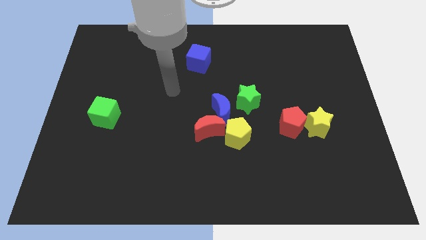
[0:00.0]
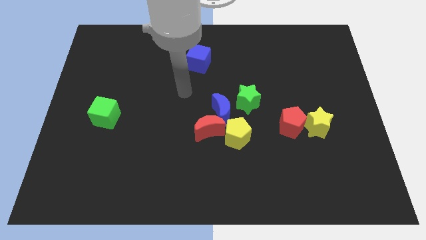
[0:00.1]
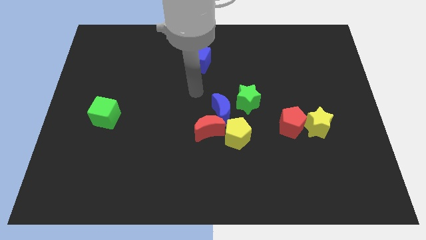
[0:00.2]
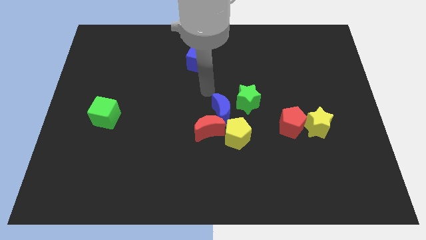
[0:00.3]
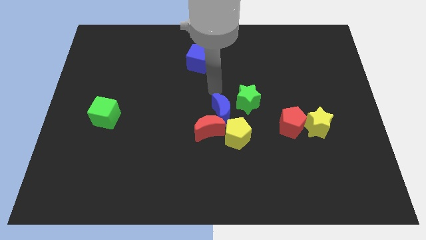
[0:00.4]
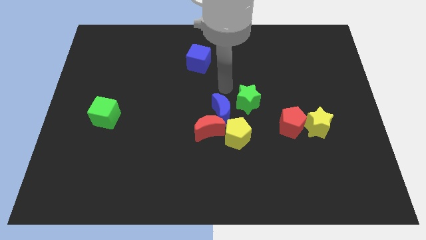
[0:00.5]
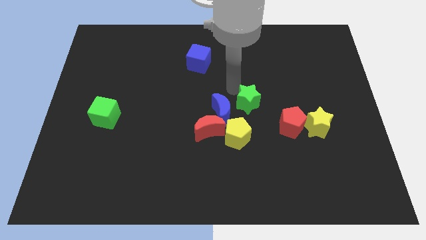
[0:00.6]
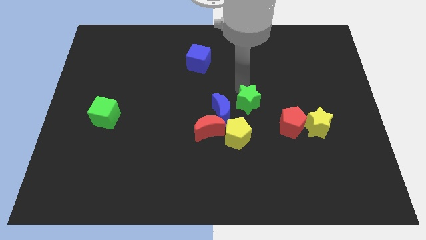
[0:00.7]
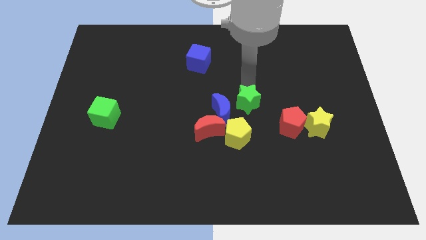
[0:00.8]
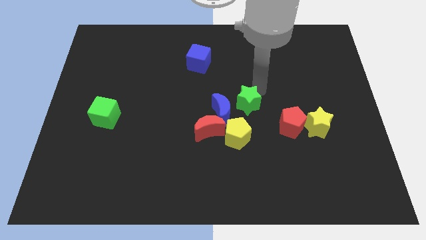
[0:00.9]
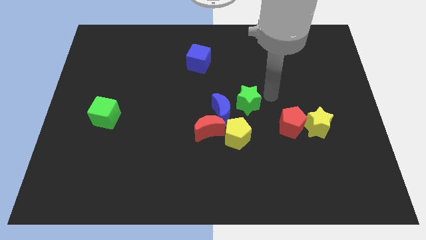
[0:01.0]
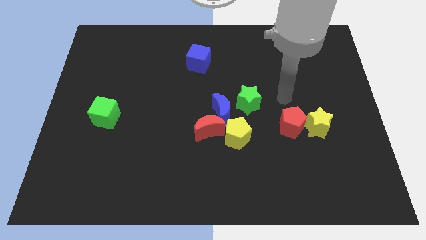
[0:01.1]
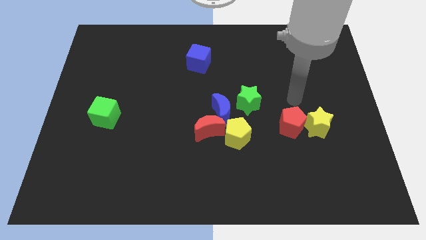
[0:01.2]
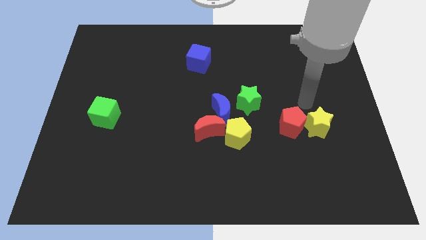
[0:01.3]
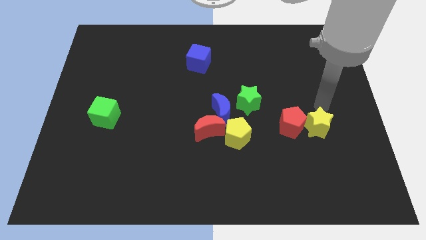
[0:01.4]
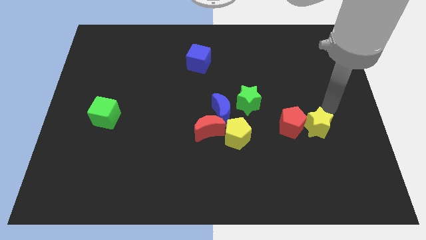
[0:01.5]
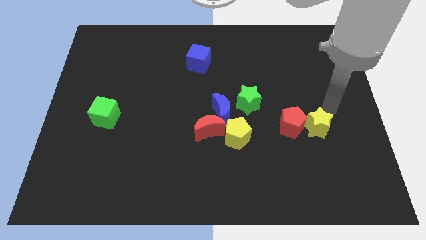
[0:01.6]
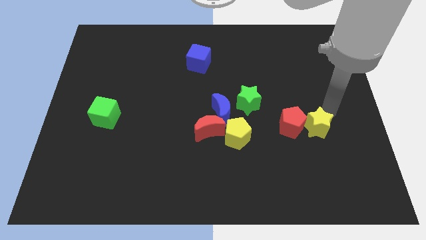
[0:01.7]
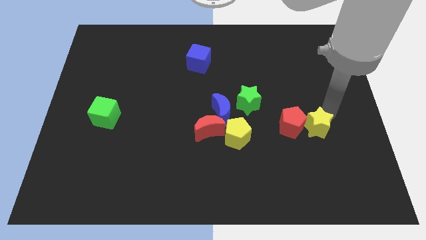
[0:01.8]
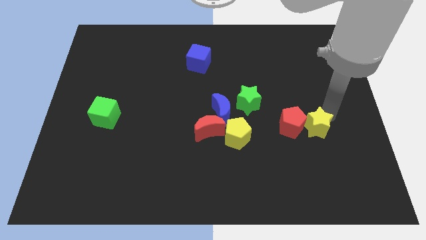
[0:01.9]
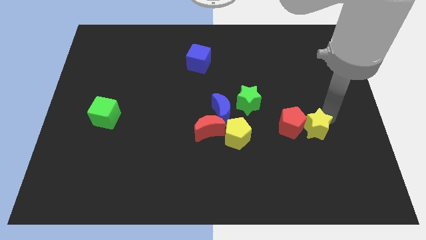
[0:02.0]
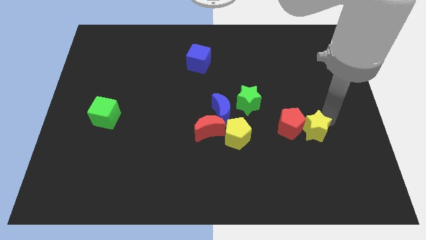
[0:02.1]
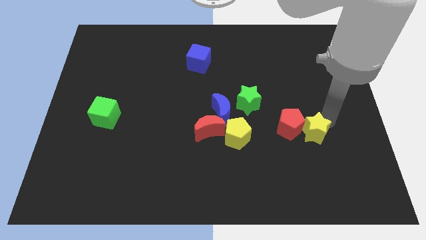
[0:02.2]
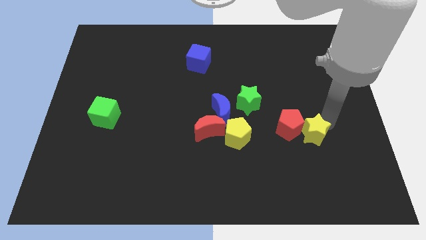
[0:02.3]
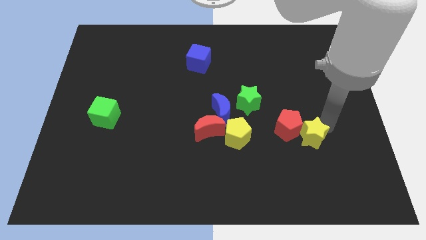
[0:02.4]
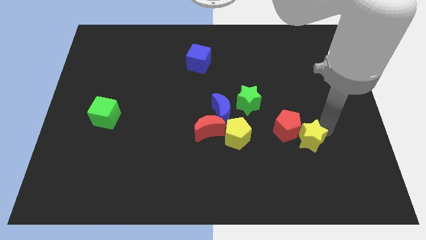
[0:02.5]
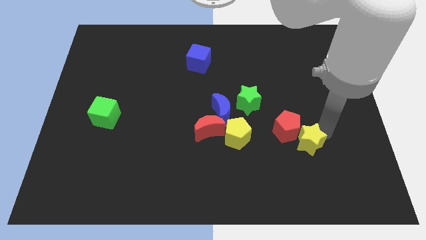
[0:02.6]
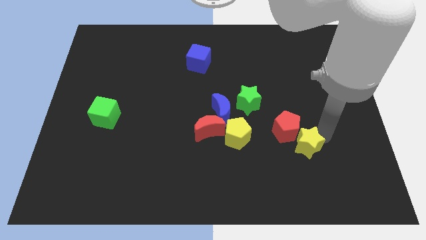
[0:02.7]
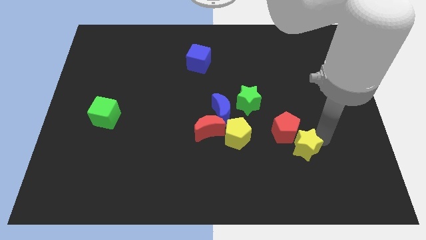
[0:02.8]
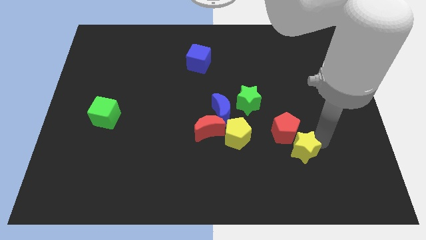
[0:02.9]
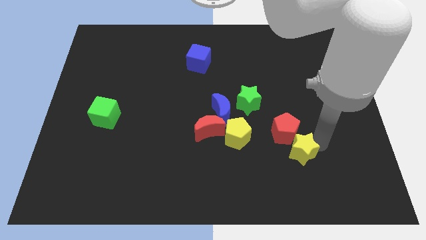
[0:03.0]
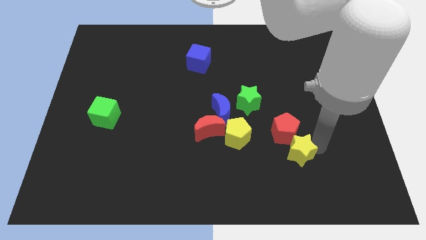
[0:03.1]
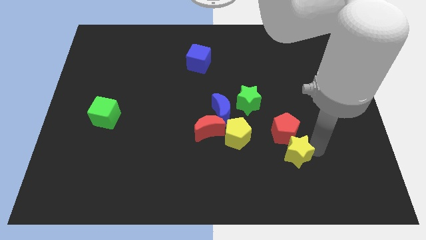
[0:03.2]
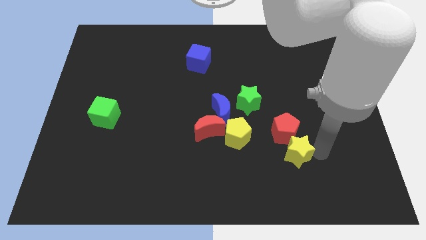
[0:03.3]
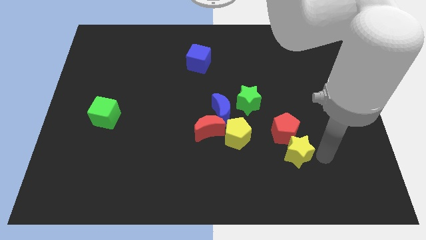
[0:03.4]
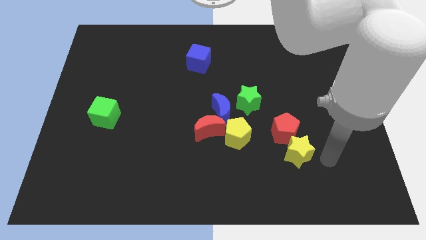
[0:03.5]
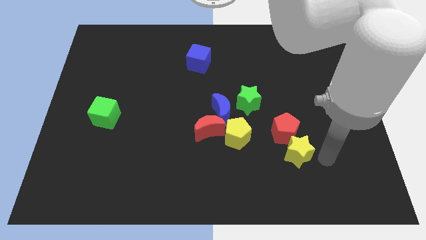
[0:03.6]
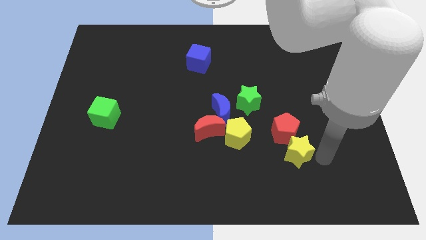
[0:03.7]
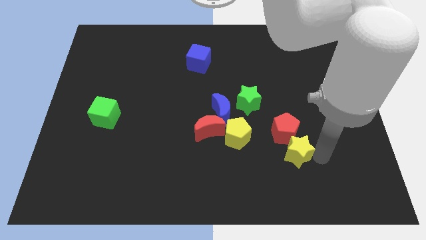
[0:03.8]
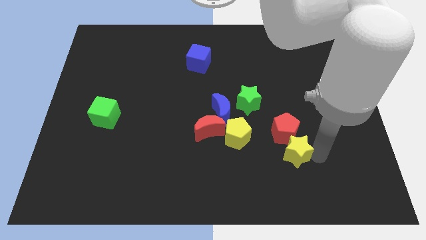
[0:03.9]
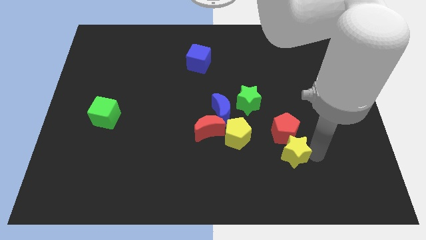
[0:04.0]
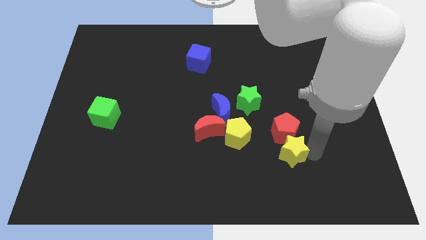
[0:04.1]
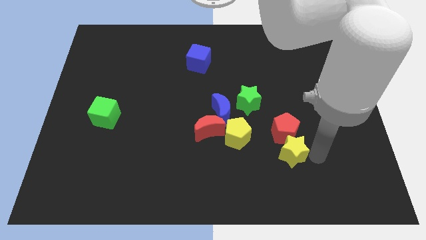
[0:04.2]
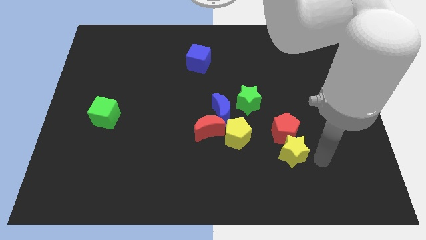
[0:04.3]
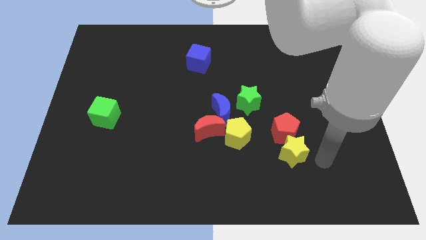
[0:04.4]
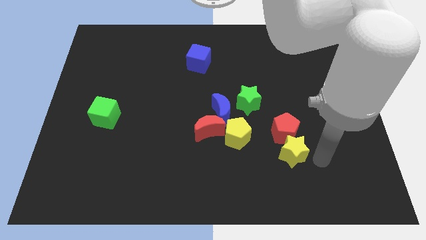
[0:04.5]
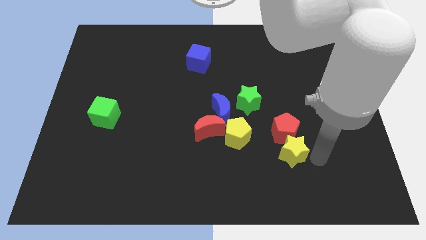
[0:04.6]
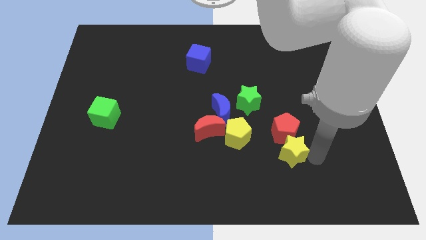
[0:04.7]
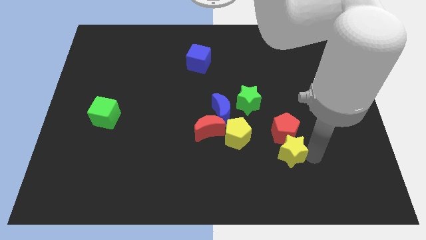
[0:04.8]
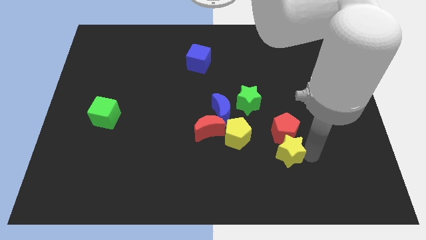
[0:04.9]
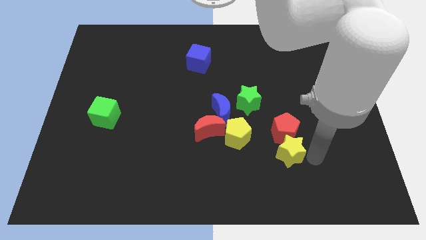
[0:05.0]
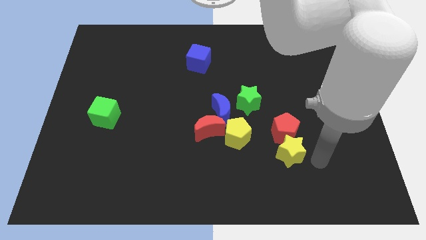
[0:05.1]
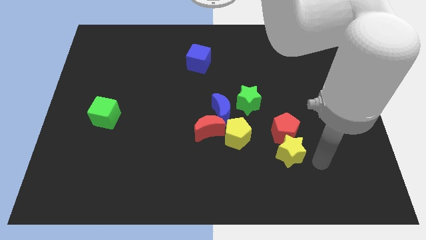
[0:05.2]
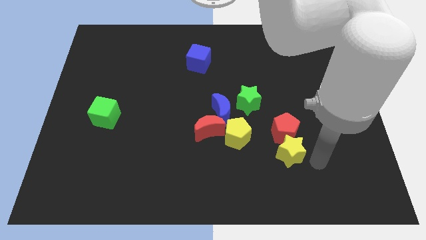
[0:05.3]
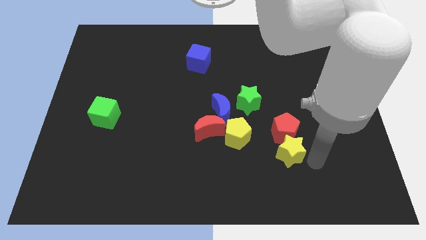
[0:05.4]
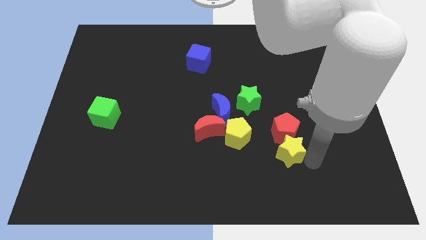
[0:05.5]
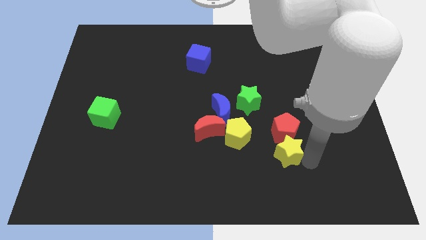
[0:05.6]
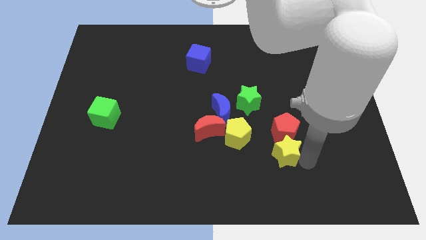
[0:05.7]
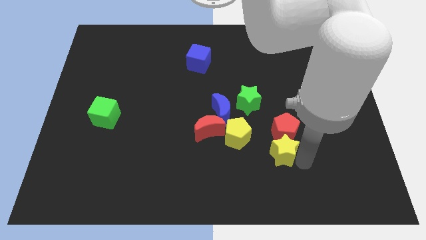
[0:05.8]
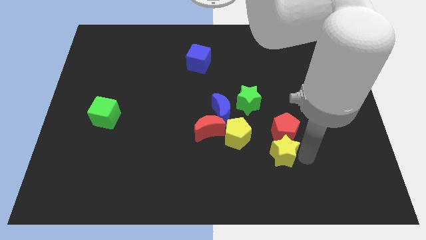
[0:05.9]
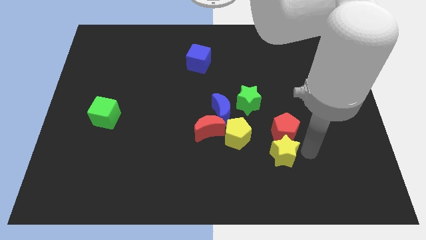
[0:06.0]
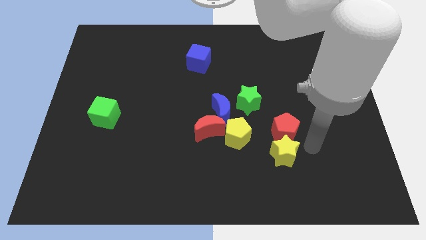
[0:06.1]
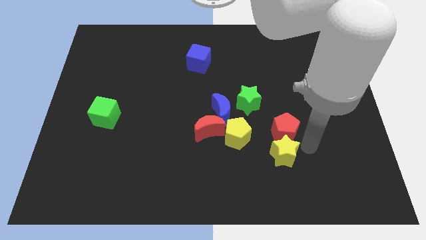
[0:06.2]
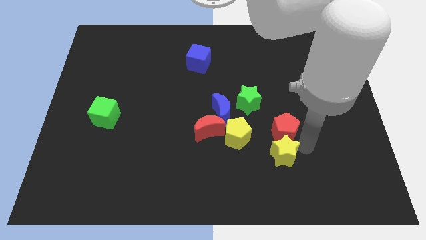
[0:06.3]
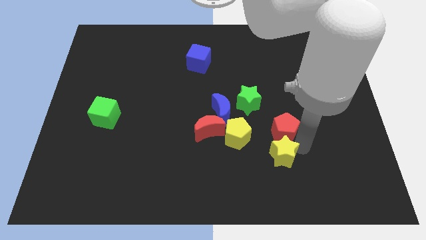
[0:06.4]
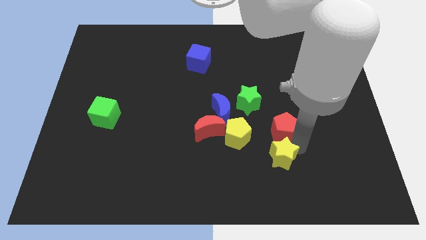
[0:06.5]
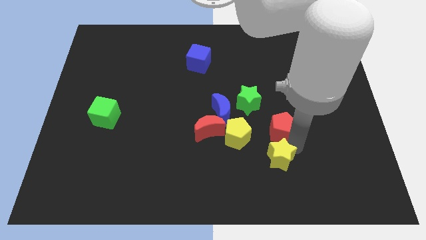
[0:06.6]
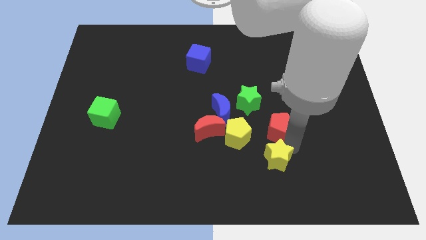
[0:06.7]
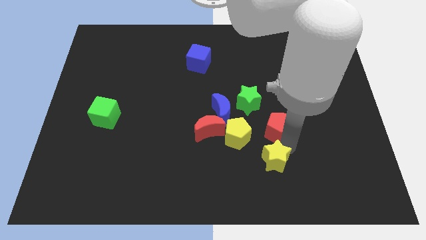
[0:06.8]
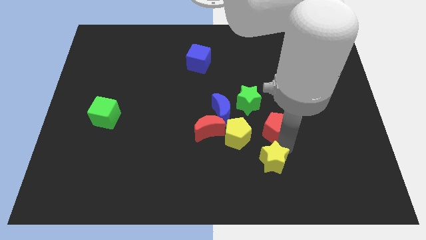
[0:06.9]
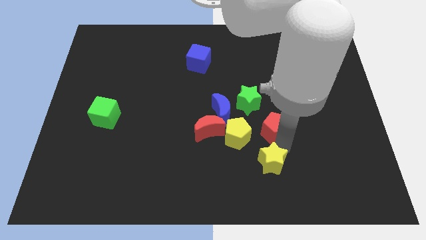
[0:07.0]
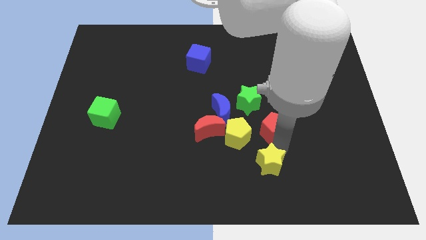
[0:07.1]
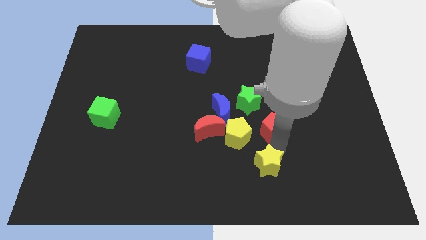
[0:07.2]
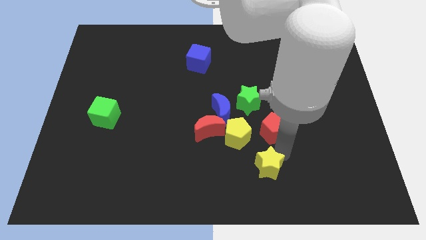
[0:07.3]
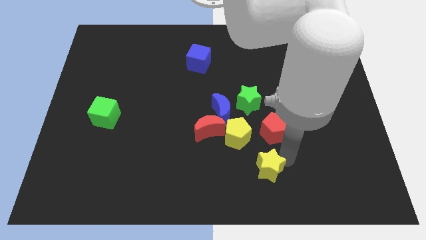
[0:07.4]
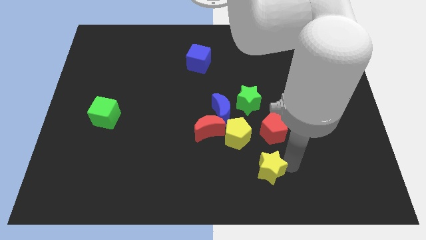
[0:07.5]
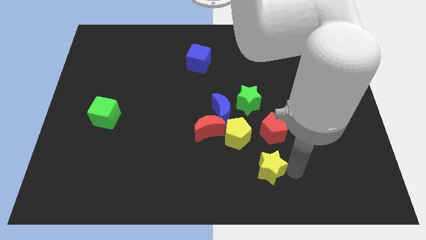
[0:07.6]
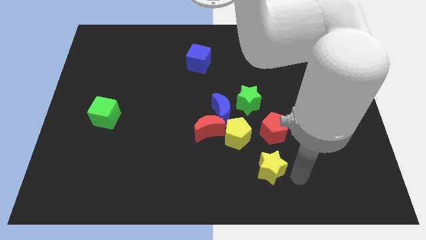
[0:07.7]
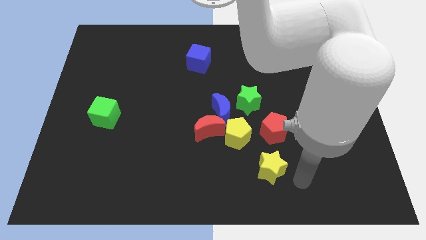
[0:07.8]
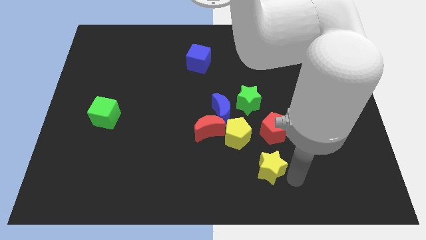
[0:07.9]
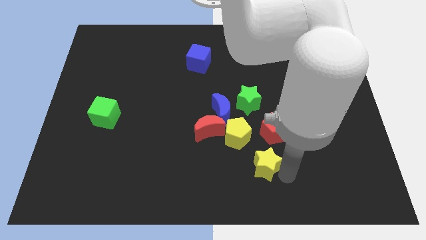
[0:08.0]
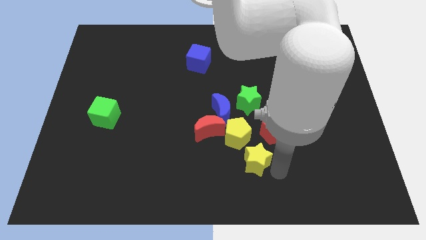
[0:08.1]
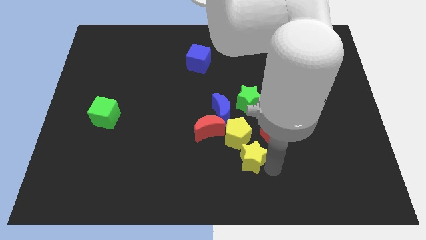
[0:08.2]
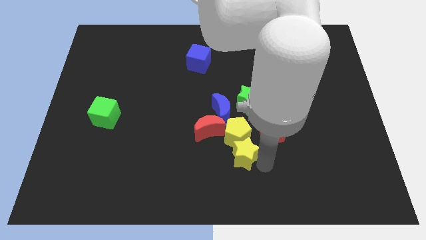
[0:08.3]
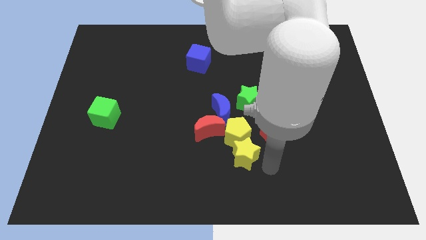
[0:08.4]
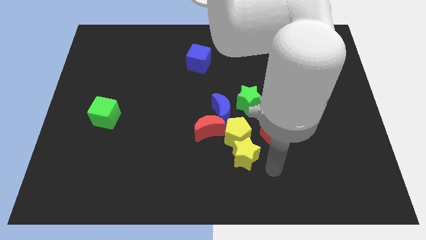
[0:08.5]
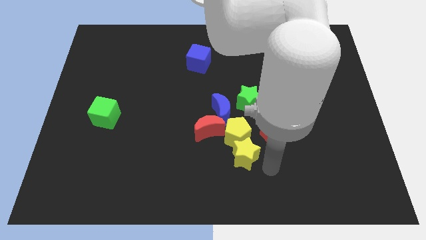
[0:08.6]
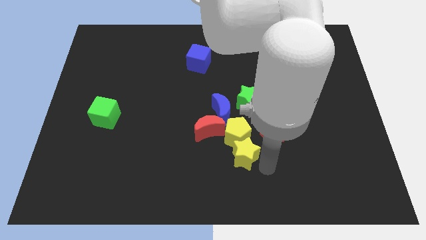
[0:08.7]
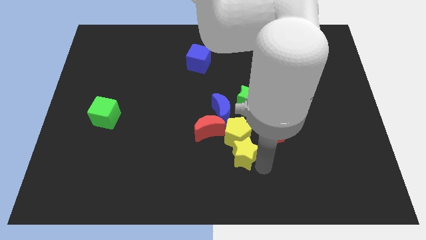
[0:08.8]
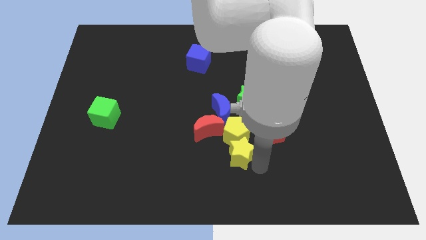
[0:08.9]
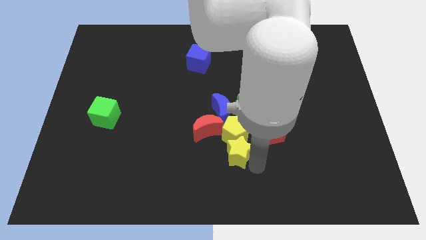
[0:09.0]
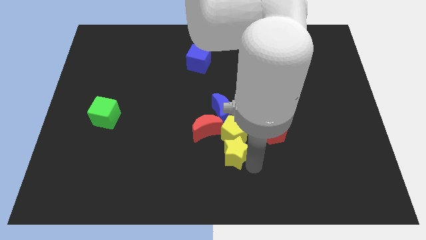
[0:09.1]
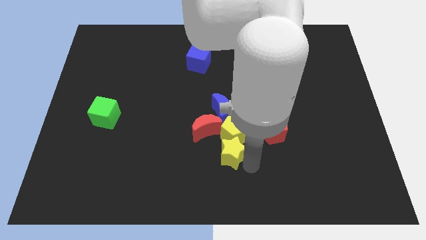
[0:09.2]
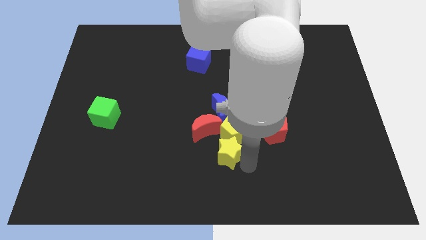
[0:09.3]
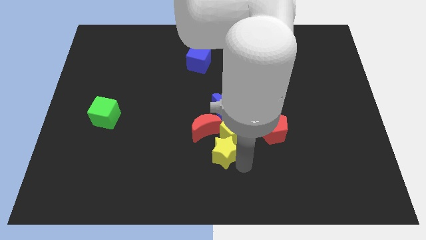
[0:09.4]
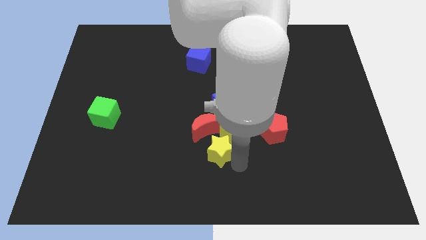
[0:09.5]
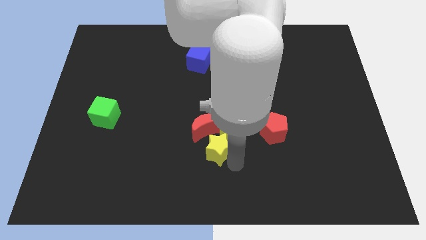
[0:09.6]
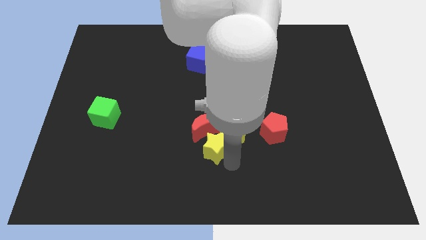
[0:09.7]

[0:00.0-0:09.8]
slide the yellow star close to the red moon
